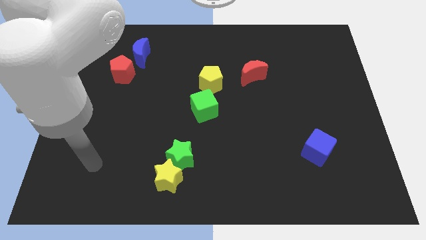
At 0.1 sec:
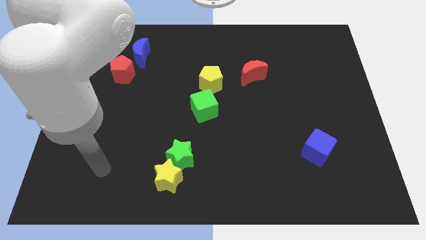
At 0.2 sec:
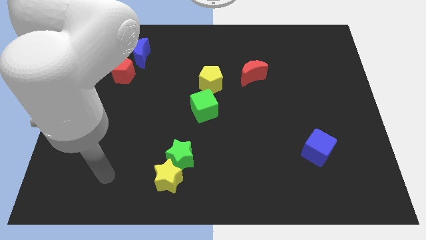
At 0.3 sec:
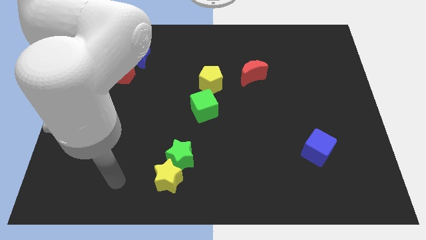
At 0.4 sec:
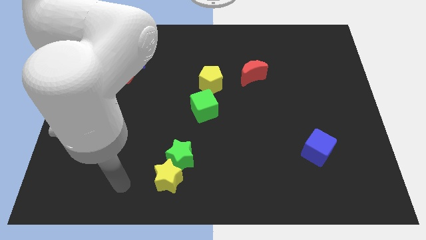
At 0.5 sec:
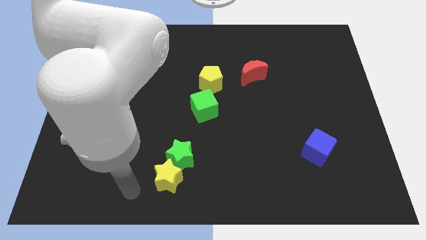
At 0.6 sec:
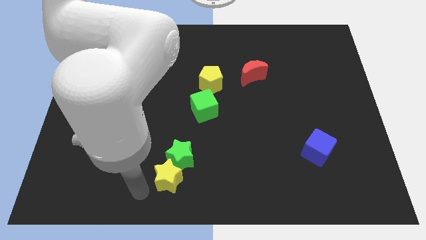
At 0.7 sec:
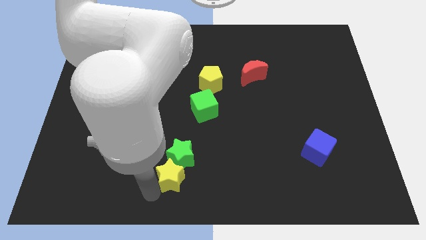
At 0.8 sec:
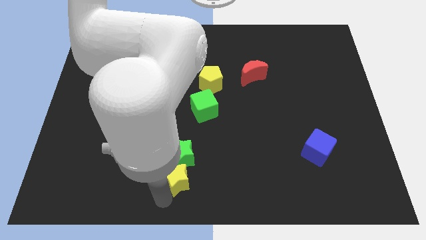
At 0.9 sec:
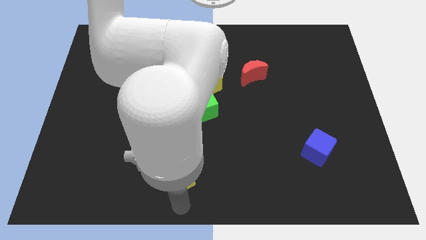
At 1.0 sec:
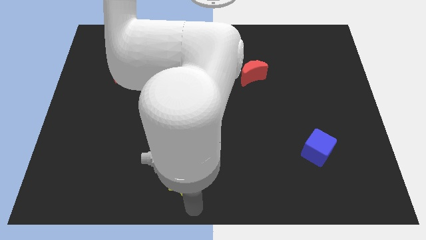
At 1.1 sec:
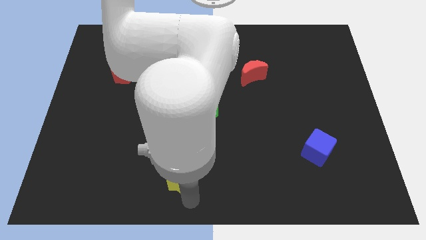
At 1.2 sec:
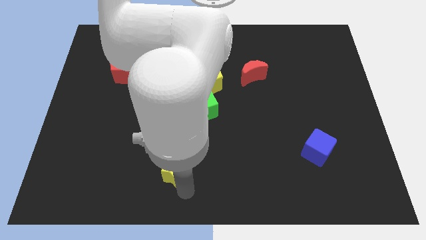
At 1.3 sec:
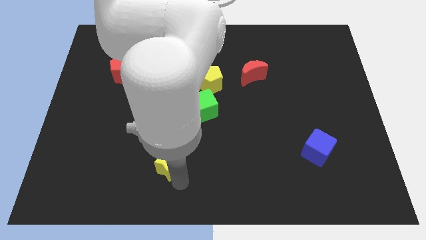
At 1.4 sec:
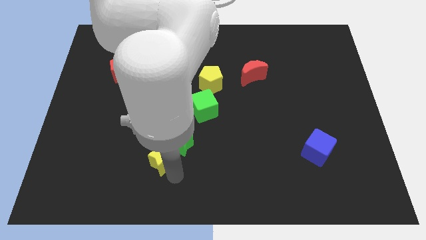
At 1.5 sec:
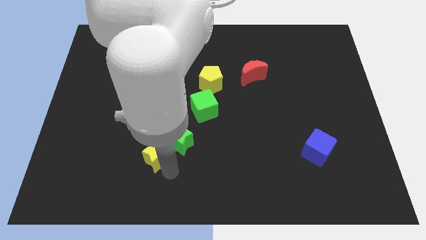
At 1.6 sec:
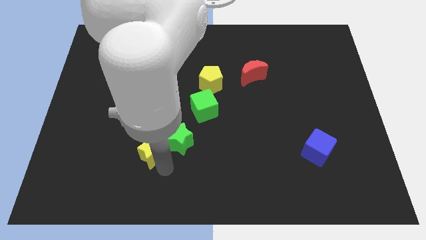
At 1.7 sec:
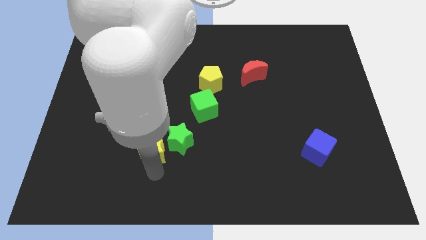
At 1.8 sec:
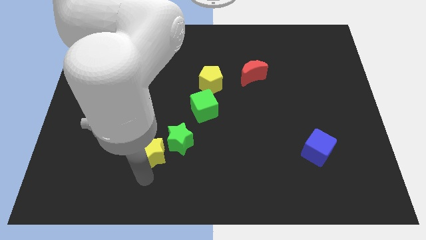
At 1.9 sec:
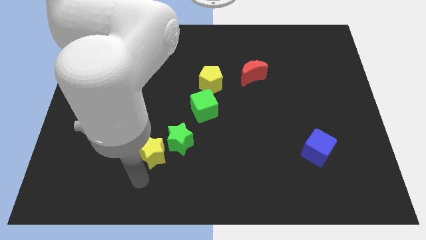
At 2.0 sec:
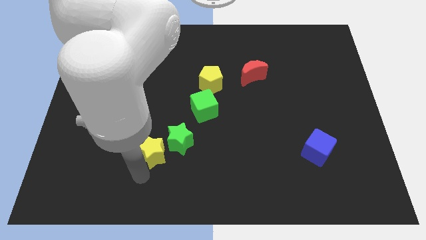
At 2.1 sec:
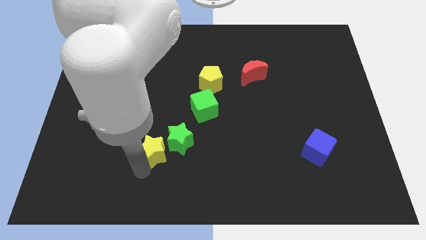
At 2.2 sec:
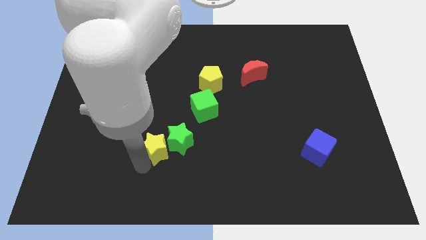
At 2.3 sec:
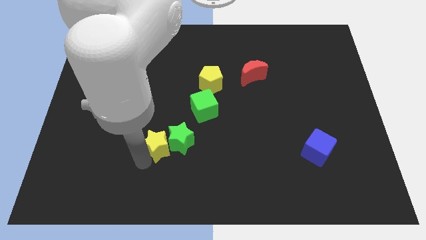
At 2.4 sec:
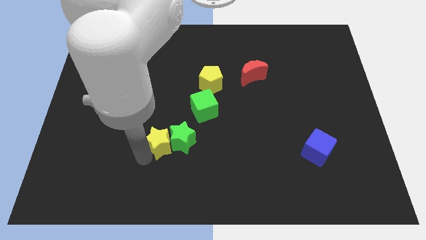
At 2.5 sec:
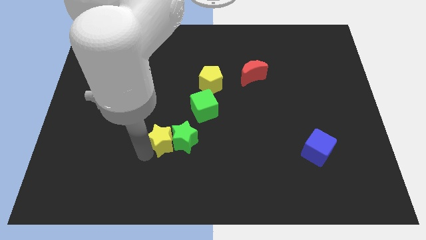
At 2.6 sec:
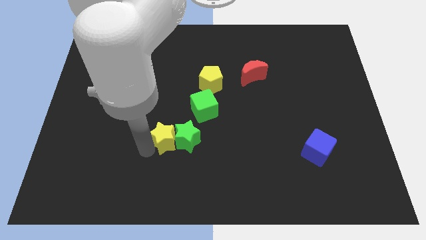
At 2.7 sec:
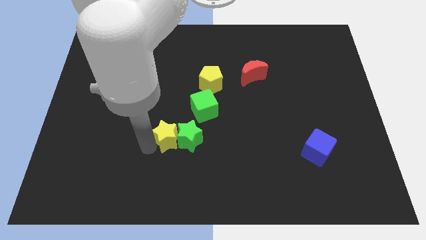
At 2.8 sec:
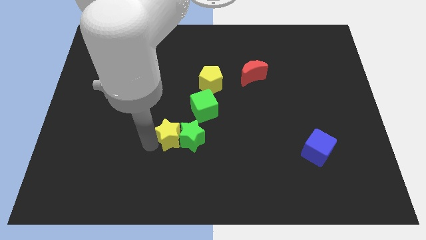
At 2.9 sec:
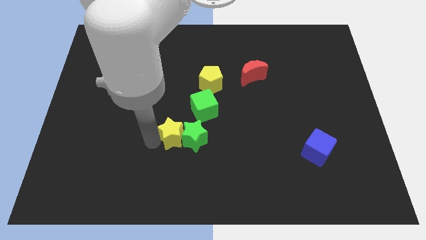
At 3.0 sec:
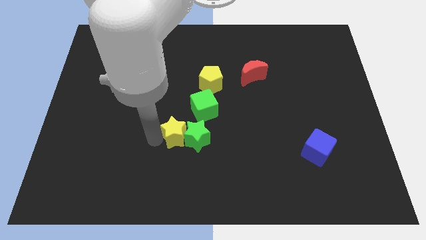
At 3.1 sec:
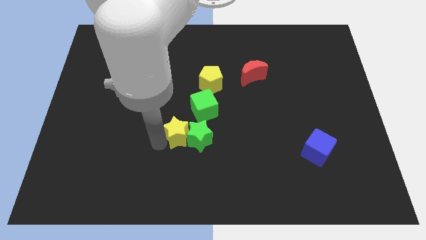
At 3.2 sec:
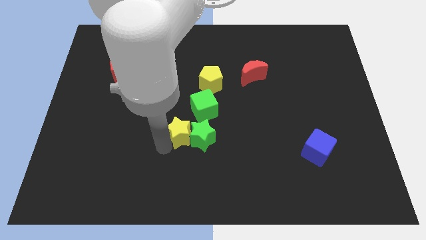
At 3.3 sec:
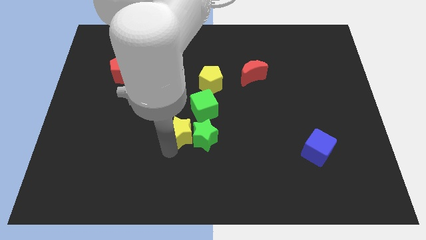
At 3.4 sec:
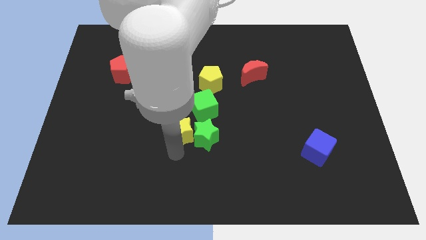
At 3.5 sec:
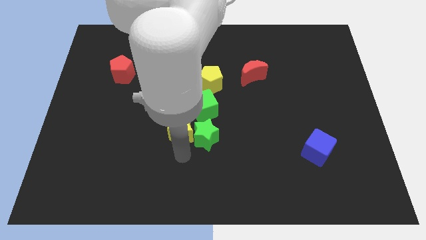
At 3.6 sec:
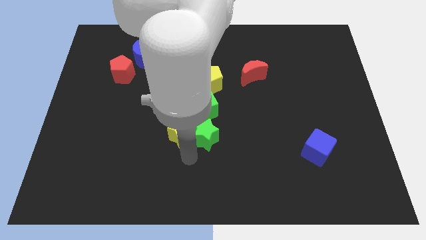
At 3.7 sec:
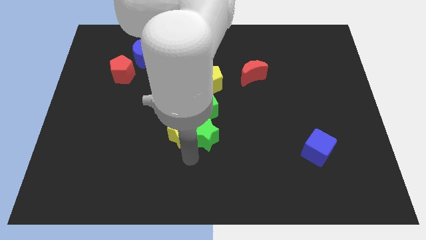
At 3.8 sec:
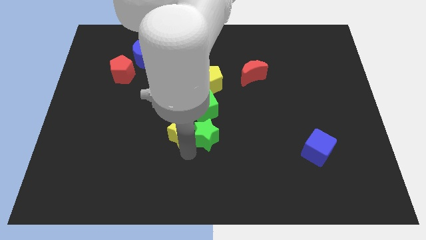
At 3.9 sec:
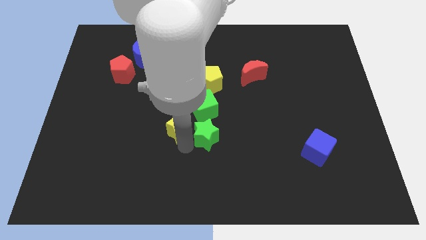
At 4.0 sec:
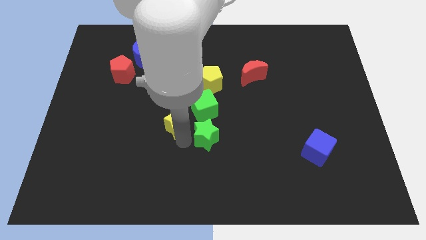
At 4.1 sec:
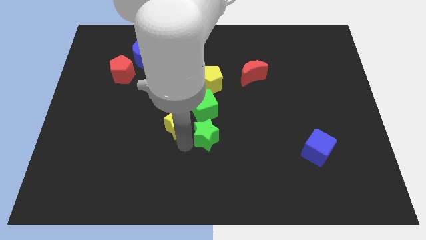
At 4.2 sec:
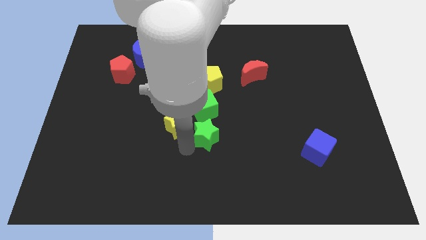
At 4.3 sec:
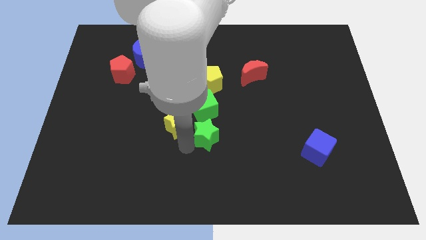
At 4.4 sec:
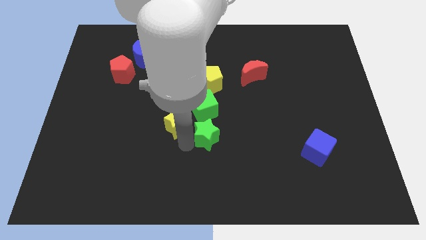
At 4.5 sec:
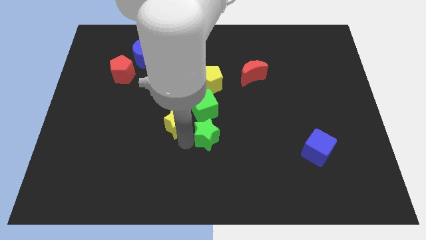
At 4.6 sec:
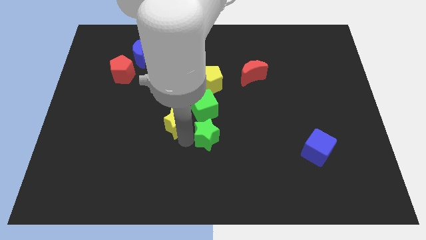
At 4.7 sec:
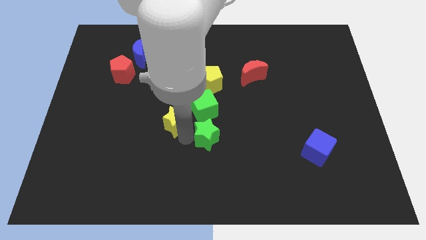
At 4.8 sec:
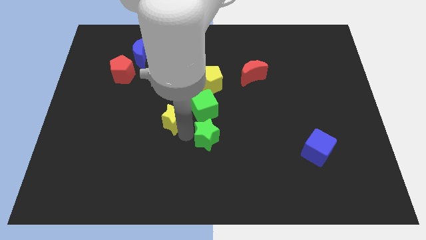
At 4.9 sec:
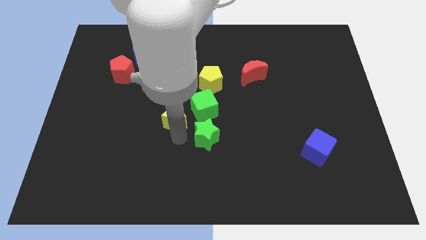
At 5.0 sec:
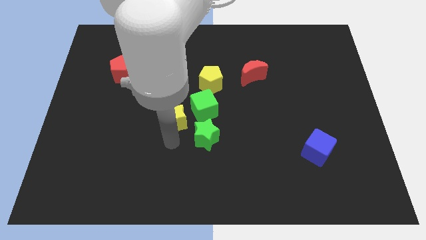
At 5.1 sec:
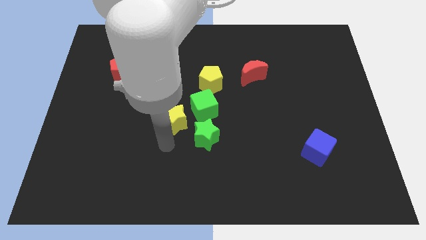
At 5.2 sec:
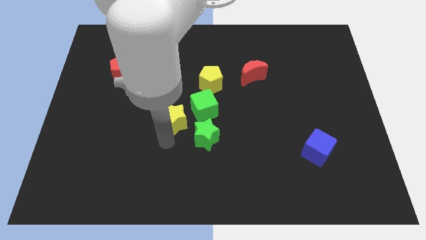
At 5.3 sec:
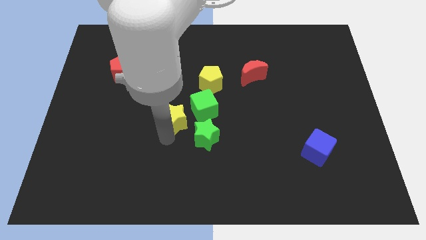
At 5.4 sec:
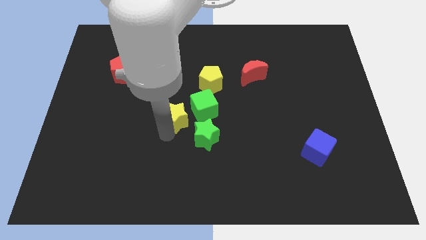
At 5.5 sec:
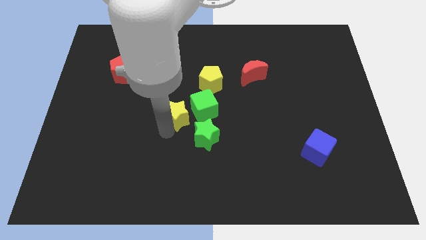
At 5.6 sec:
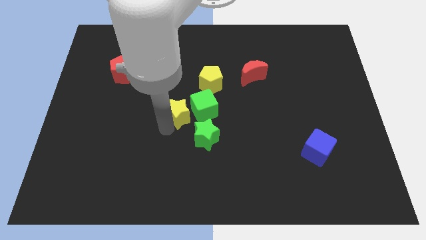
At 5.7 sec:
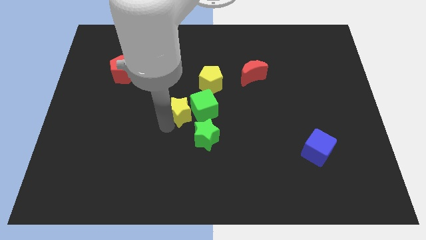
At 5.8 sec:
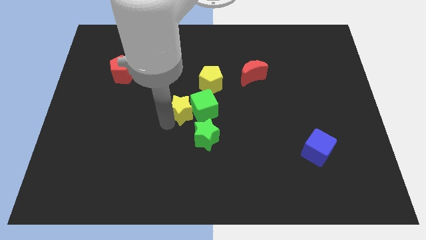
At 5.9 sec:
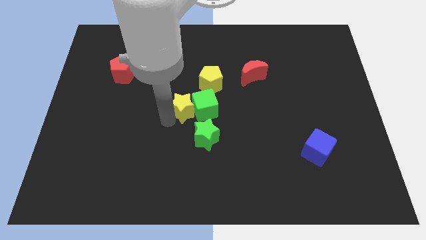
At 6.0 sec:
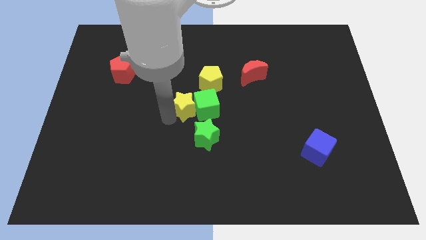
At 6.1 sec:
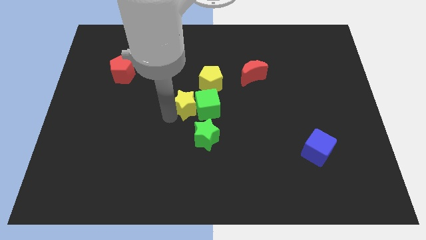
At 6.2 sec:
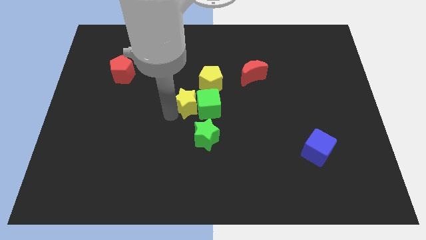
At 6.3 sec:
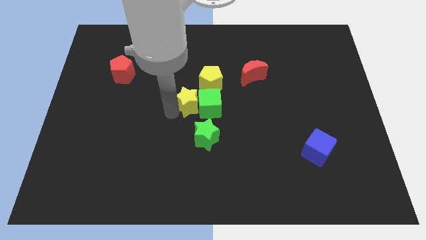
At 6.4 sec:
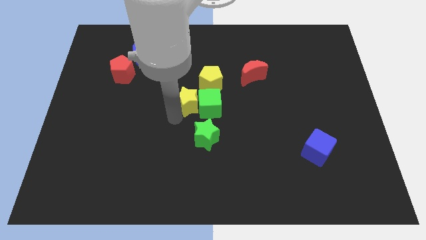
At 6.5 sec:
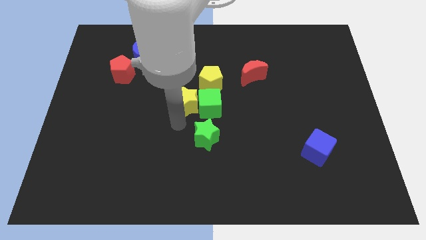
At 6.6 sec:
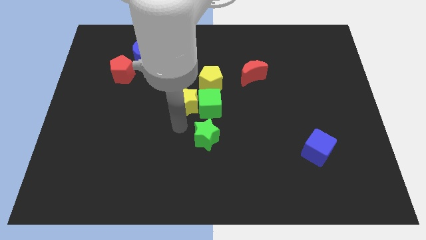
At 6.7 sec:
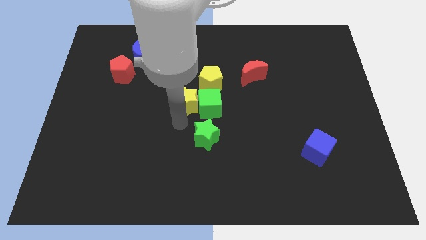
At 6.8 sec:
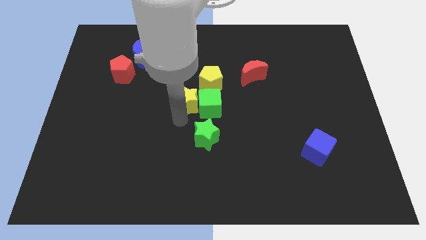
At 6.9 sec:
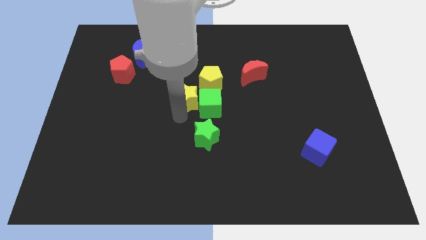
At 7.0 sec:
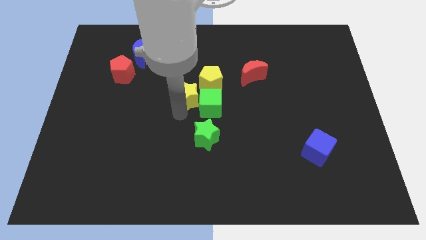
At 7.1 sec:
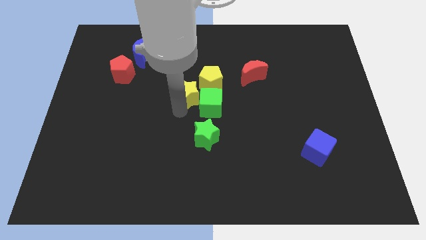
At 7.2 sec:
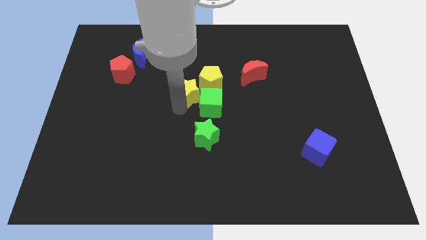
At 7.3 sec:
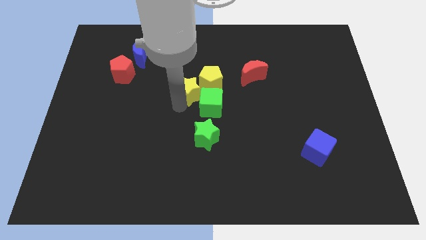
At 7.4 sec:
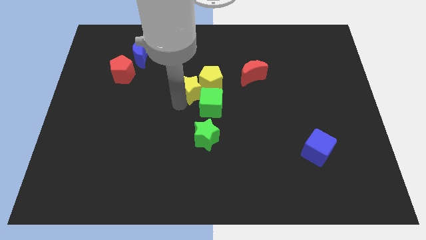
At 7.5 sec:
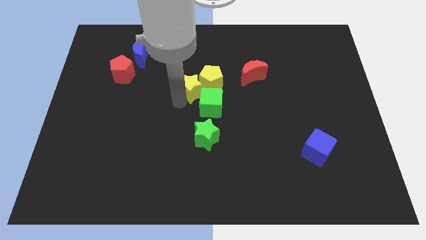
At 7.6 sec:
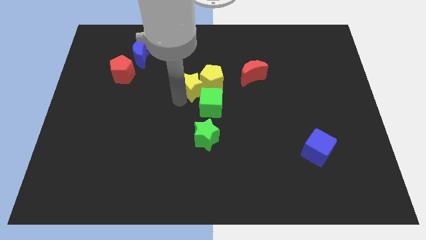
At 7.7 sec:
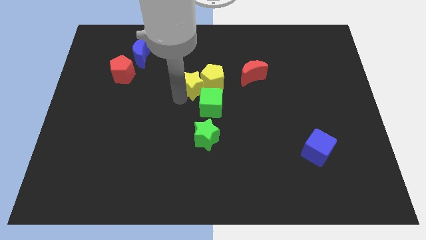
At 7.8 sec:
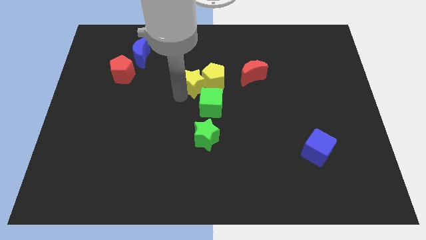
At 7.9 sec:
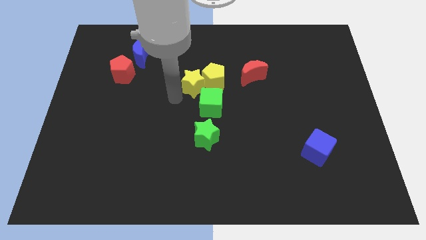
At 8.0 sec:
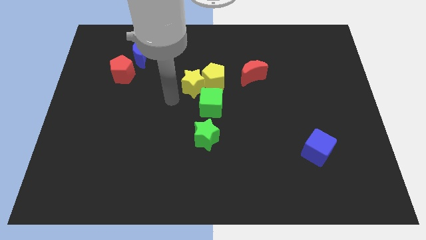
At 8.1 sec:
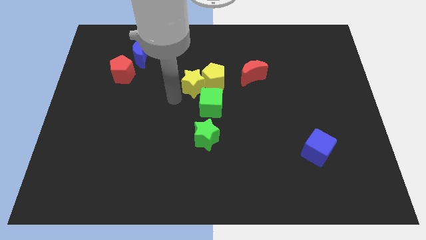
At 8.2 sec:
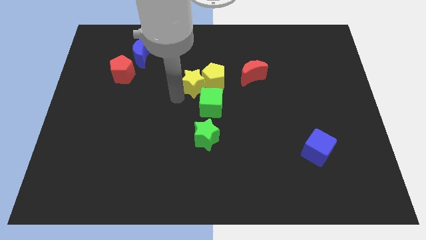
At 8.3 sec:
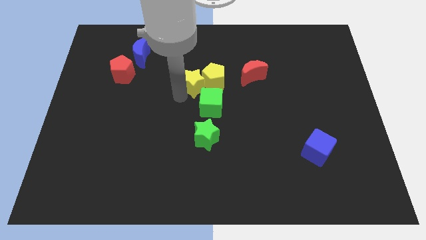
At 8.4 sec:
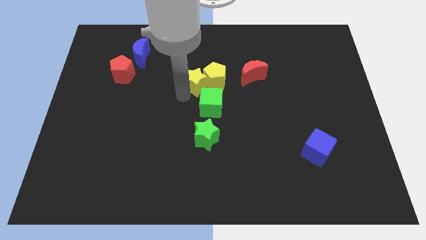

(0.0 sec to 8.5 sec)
move the yellow star to the left side of the red moon
